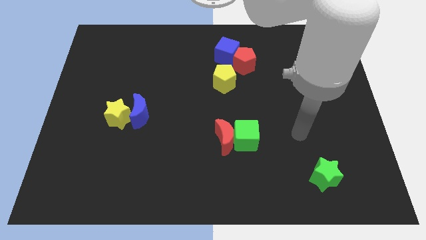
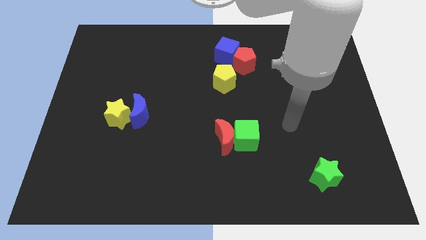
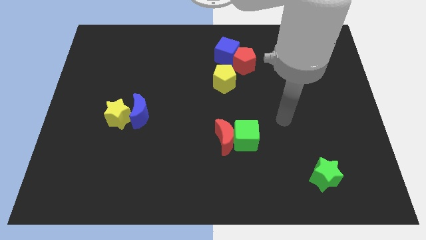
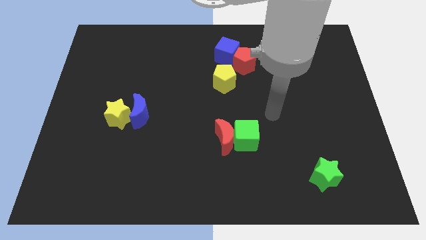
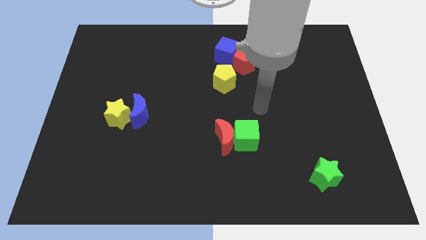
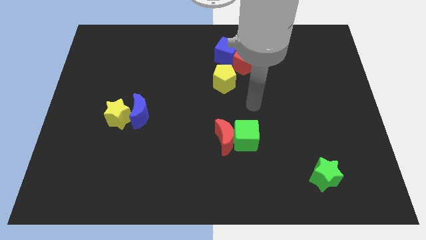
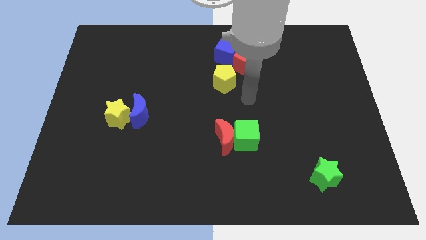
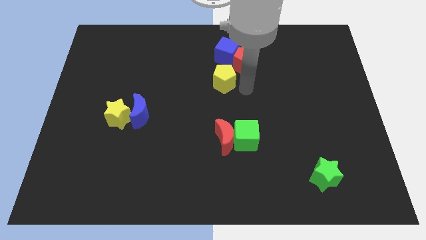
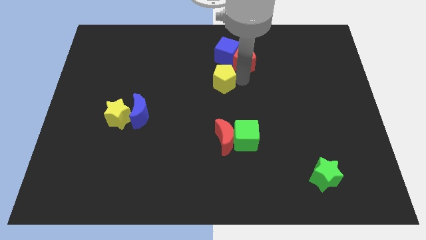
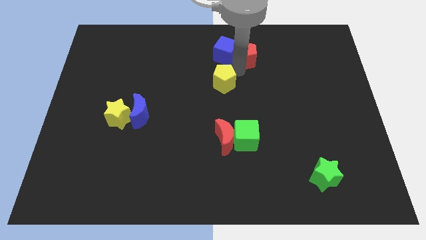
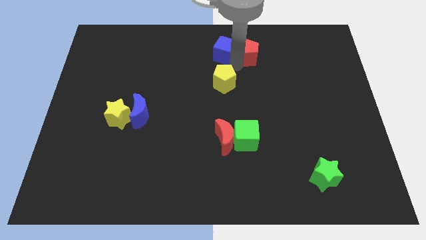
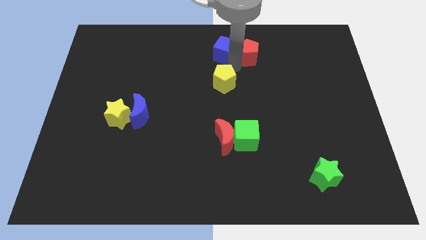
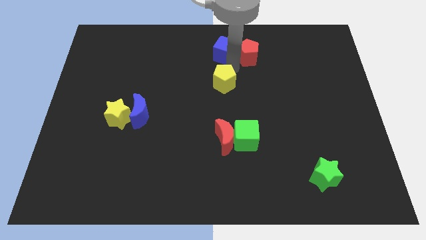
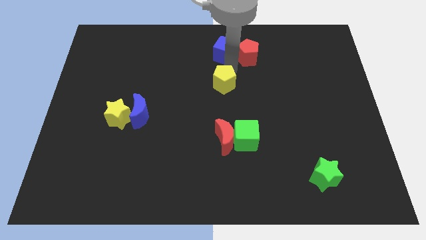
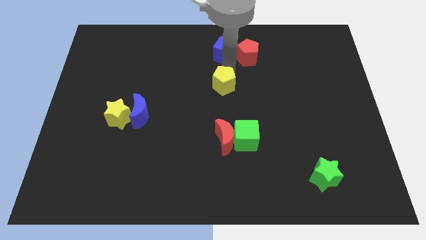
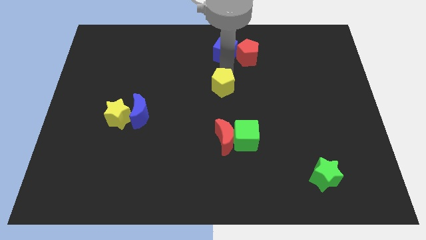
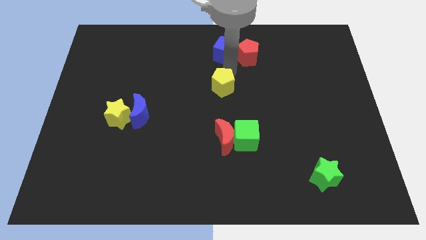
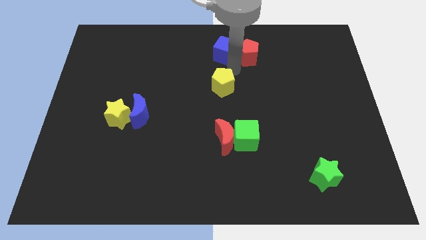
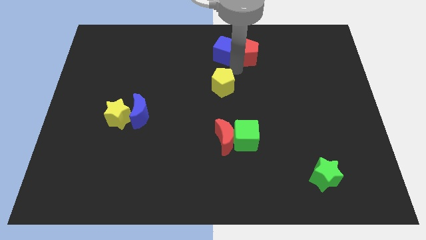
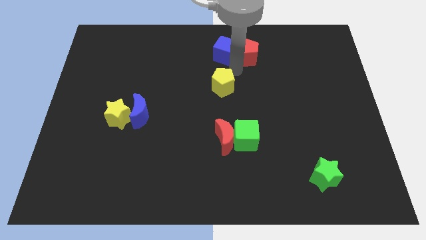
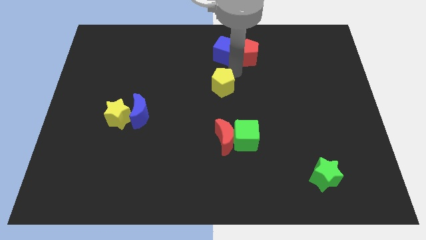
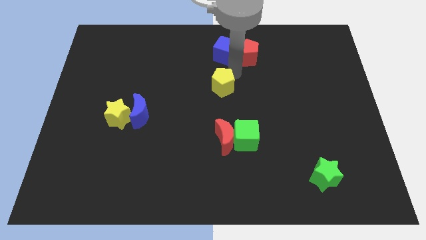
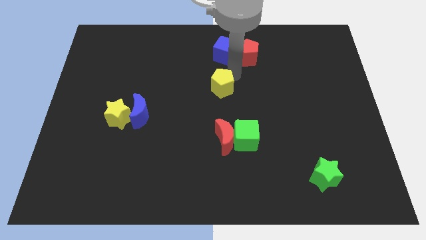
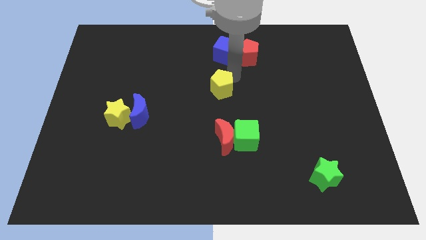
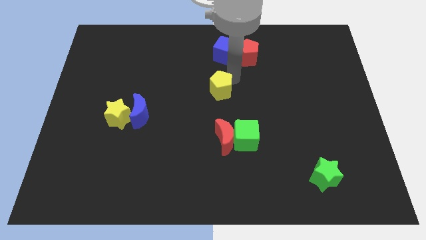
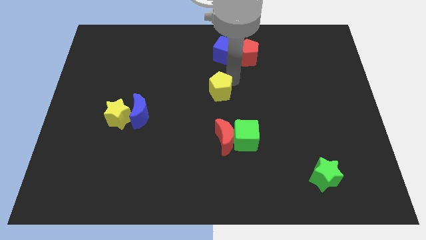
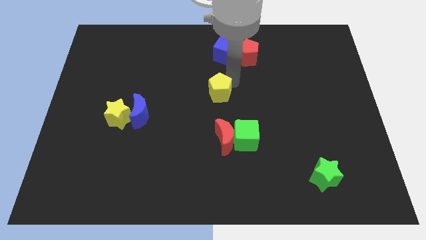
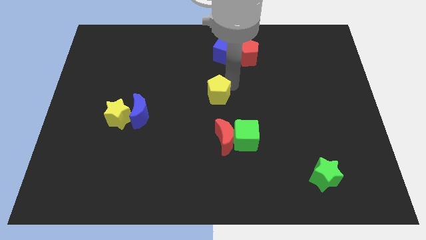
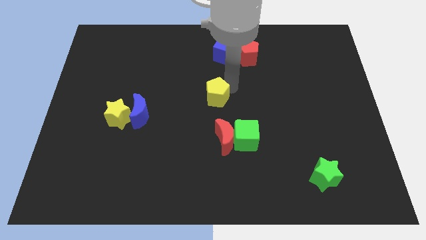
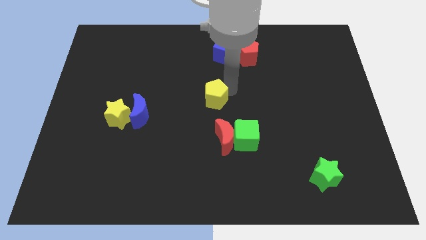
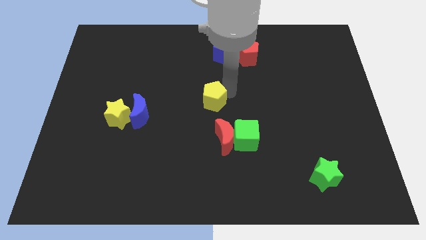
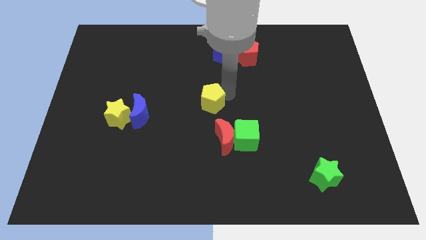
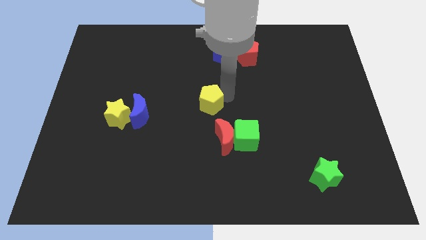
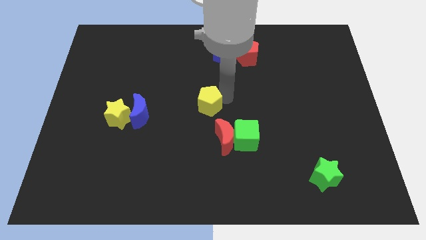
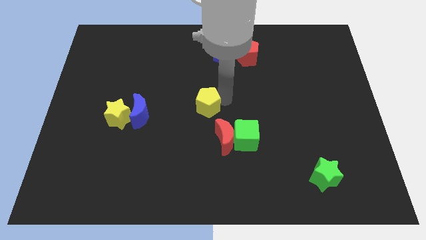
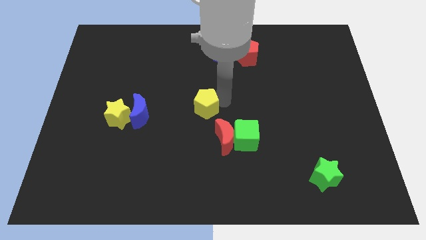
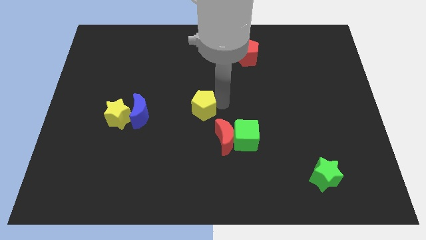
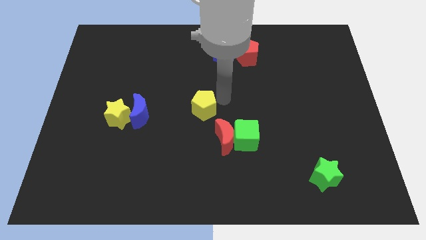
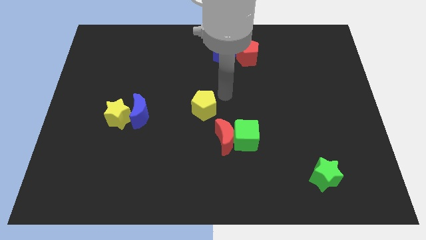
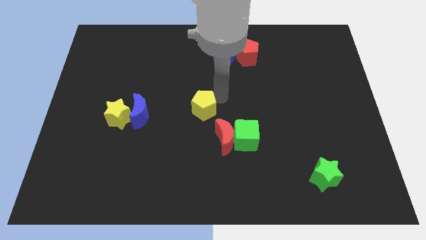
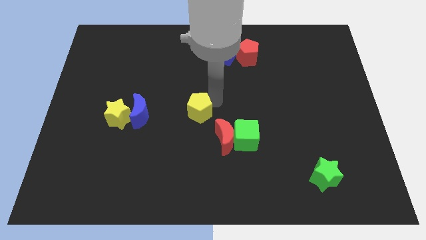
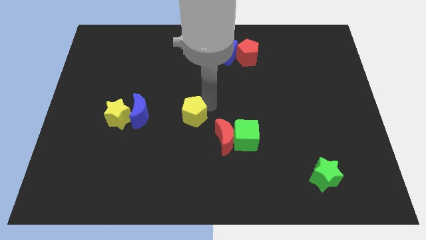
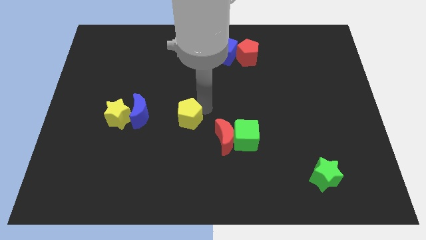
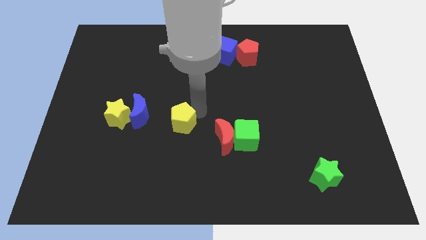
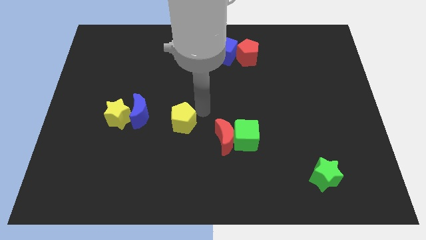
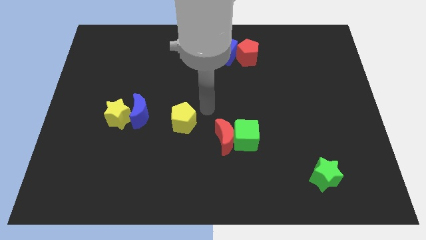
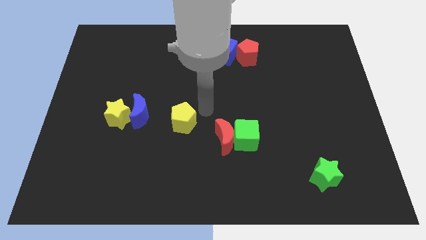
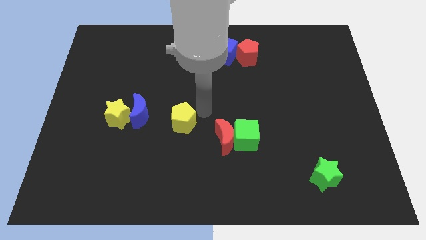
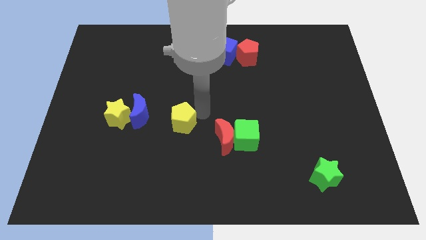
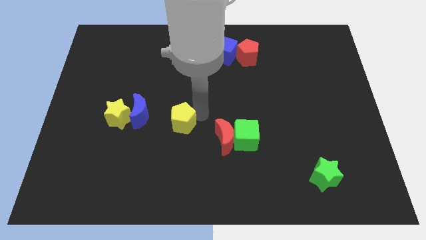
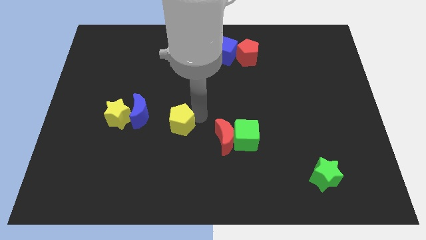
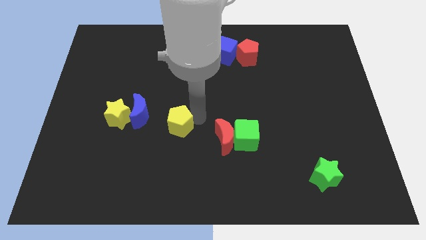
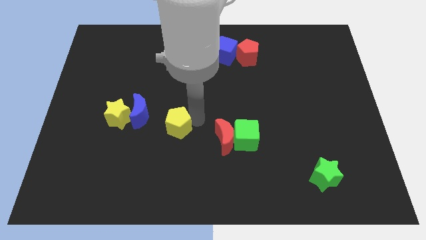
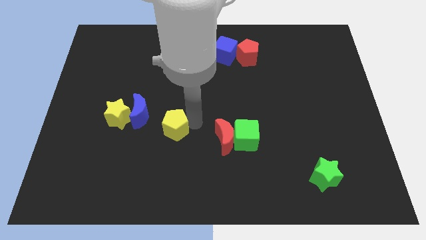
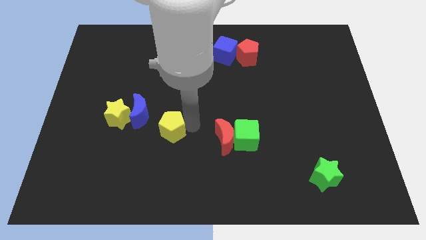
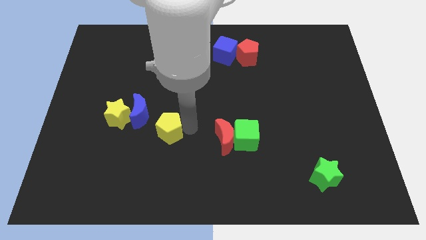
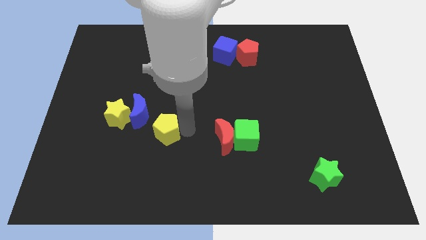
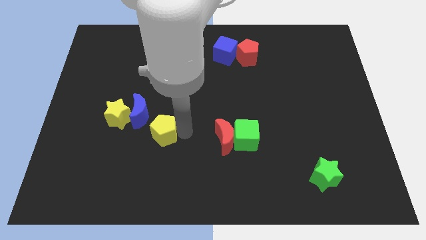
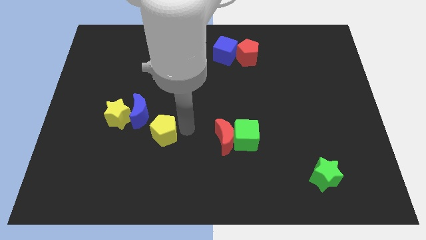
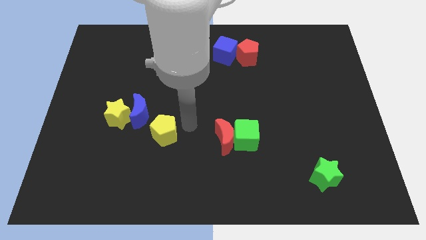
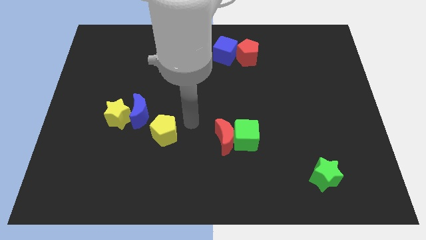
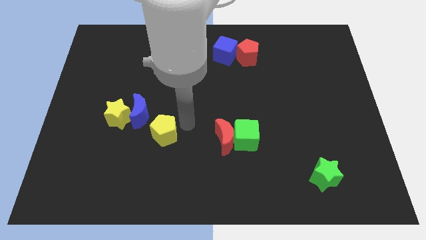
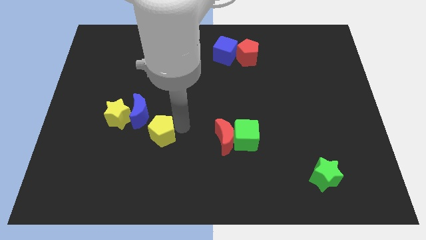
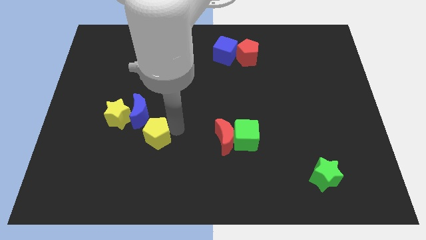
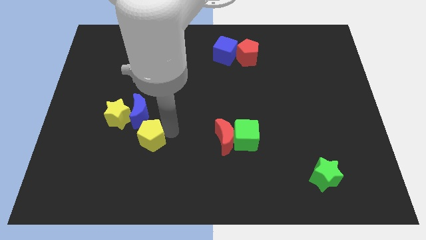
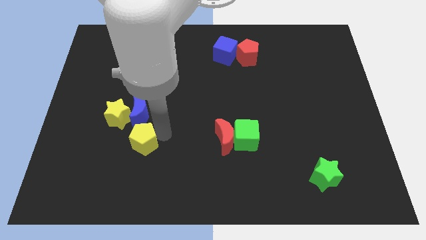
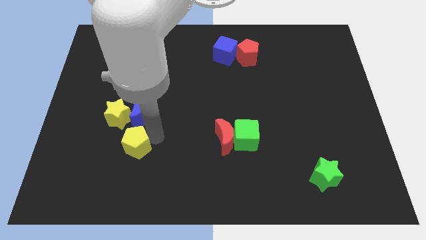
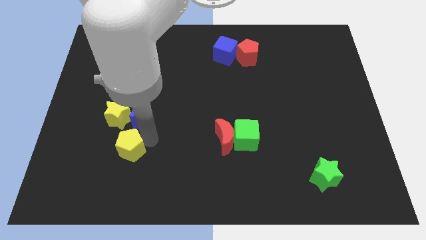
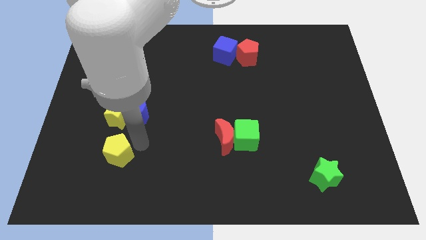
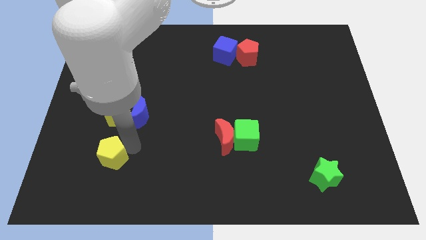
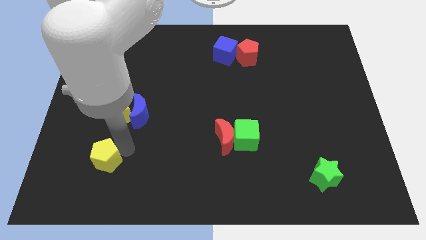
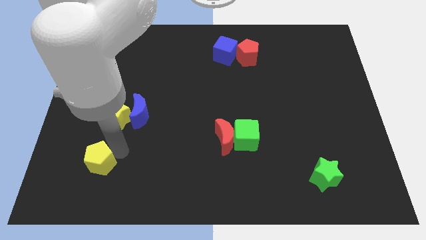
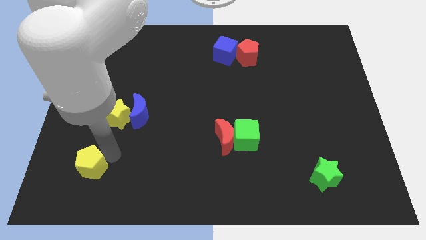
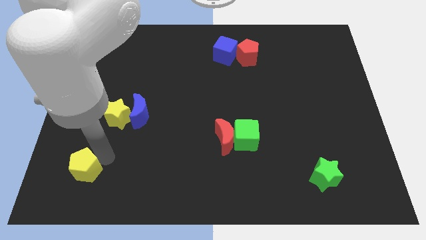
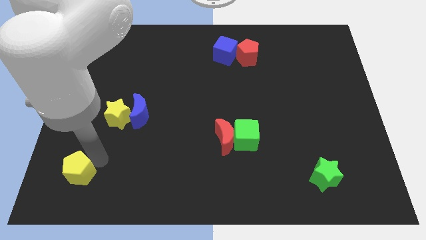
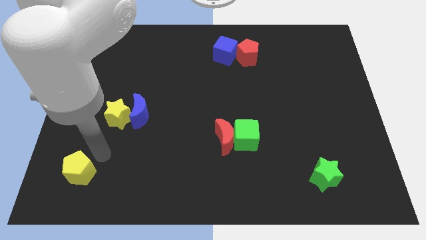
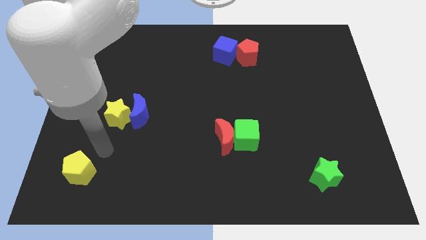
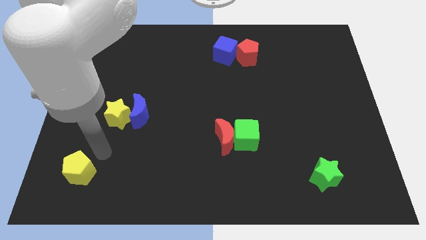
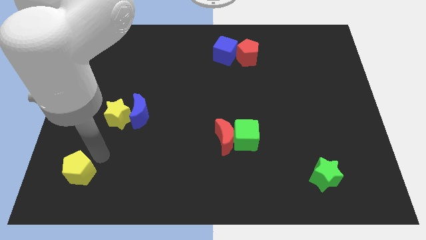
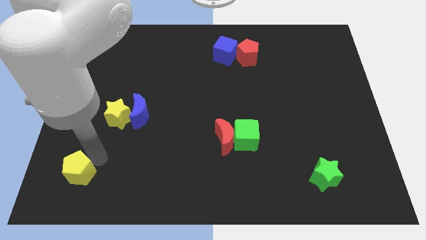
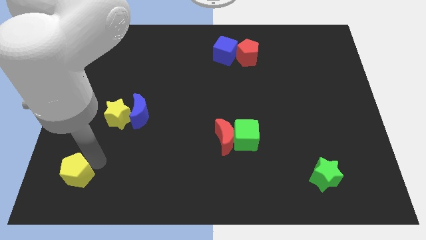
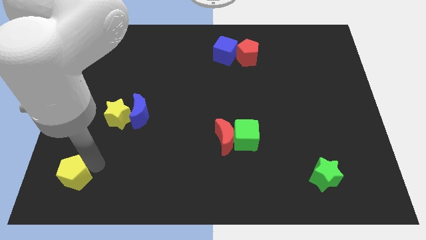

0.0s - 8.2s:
push the yellow pentagon to the bottom left corner
